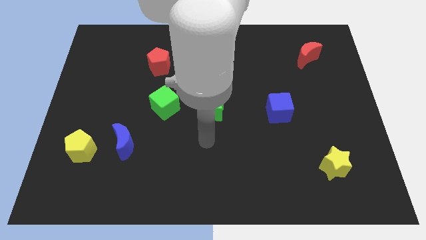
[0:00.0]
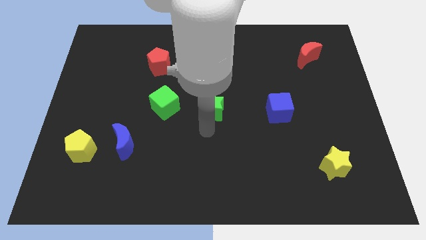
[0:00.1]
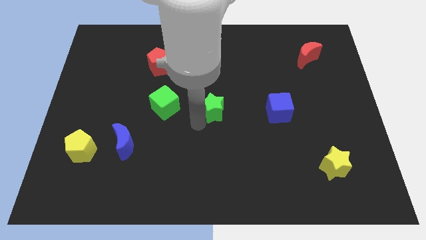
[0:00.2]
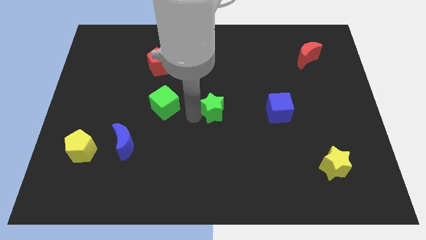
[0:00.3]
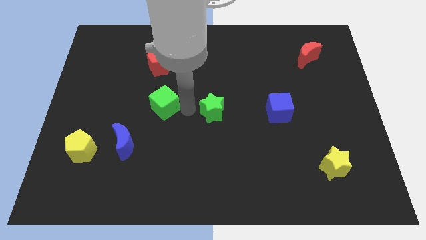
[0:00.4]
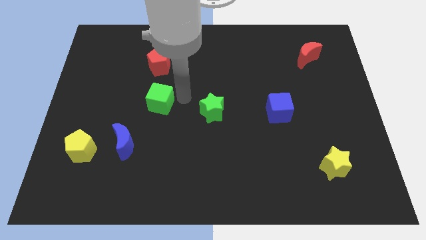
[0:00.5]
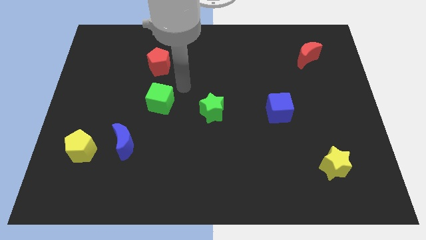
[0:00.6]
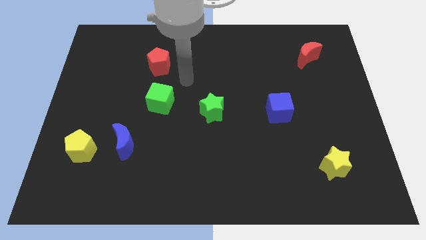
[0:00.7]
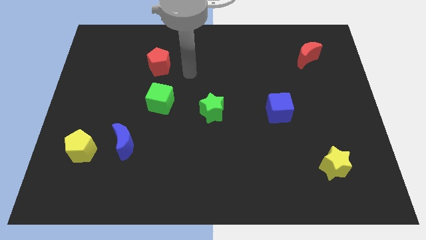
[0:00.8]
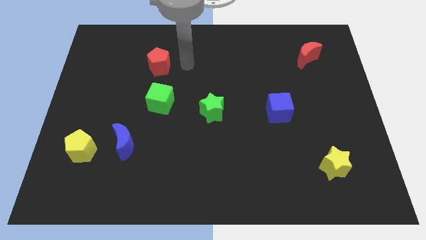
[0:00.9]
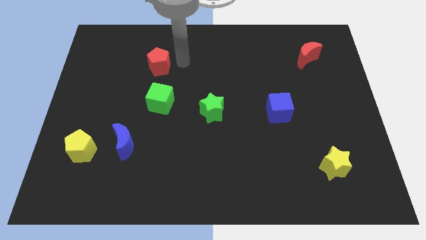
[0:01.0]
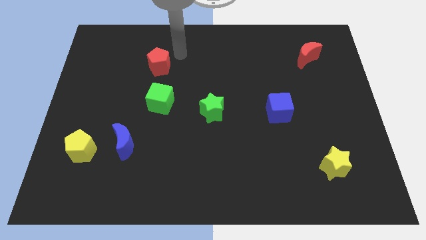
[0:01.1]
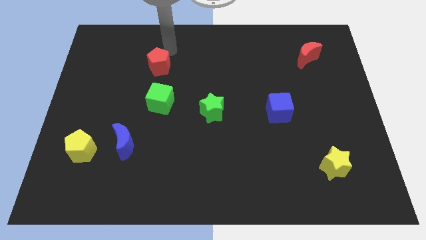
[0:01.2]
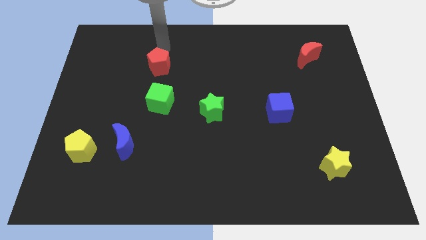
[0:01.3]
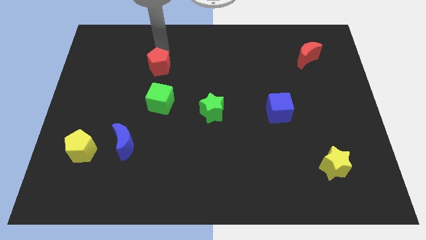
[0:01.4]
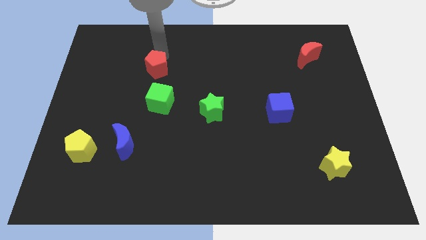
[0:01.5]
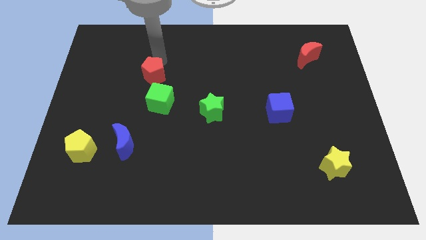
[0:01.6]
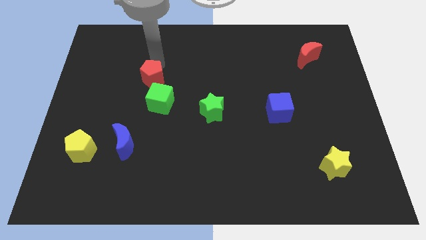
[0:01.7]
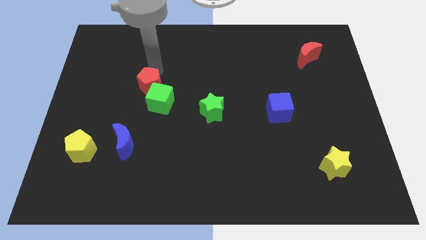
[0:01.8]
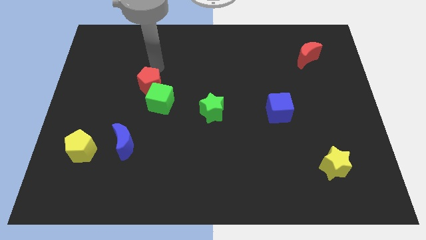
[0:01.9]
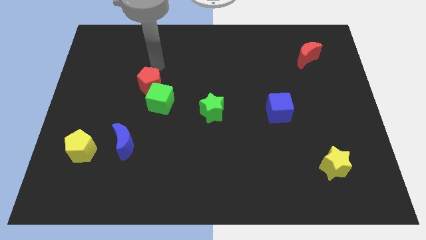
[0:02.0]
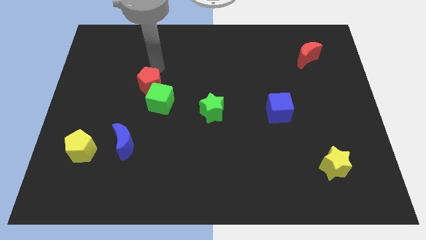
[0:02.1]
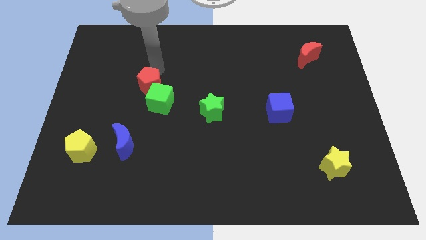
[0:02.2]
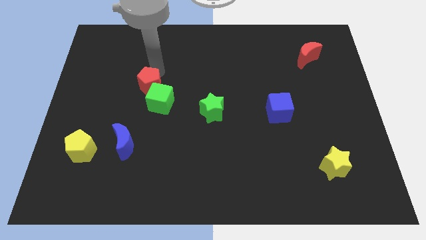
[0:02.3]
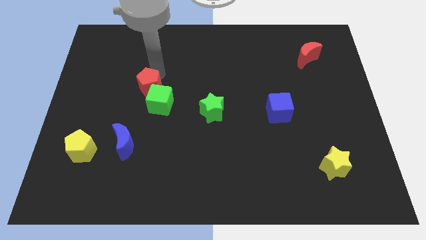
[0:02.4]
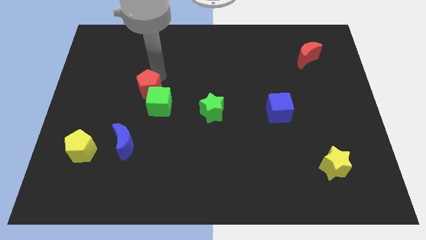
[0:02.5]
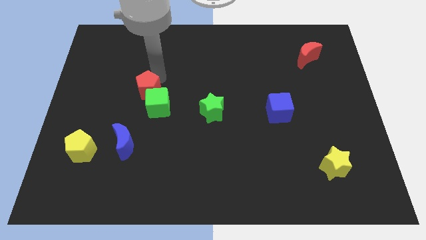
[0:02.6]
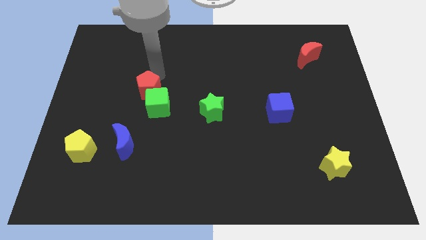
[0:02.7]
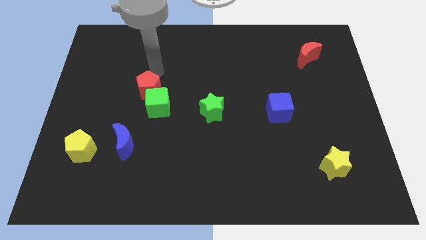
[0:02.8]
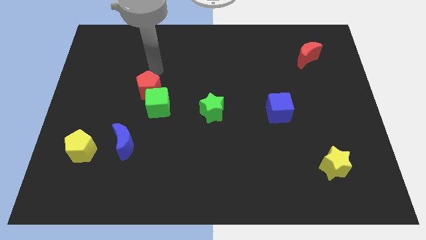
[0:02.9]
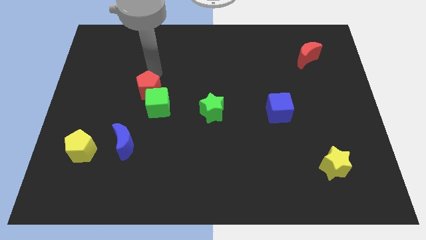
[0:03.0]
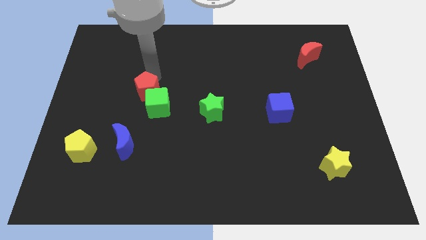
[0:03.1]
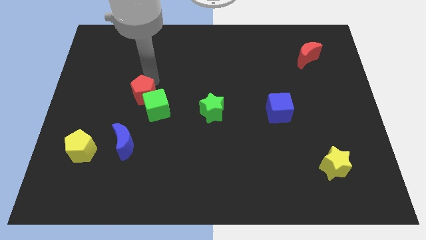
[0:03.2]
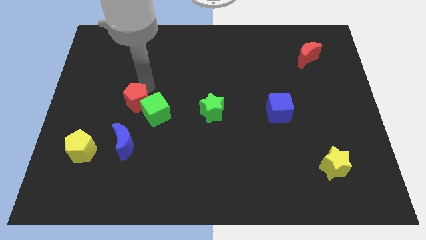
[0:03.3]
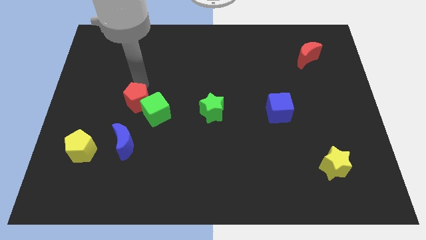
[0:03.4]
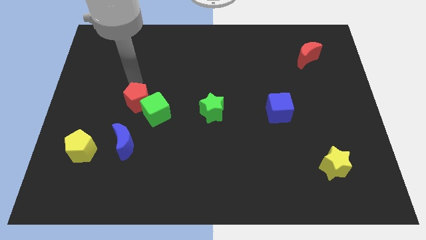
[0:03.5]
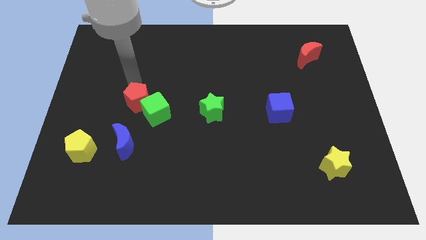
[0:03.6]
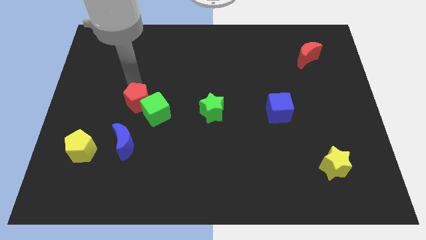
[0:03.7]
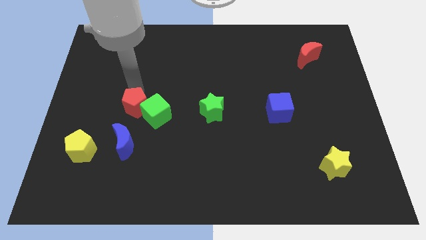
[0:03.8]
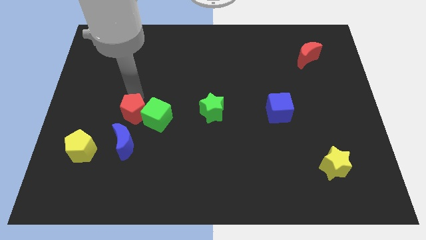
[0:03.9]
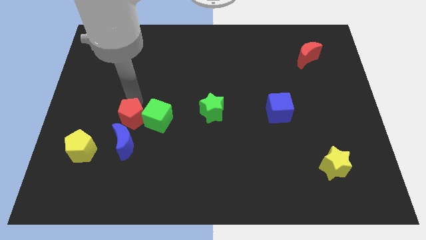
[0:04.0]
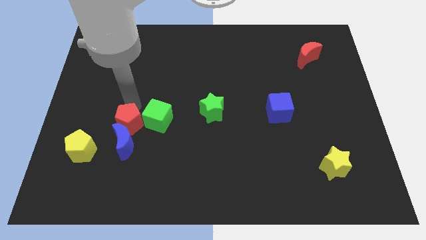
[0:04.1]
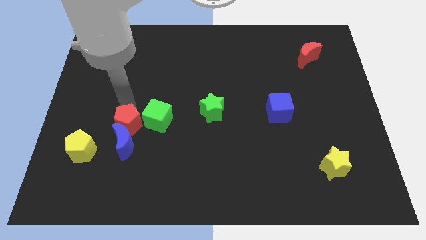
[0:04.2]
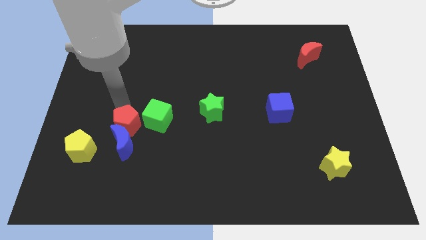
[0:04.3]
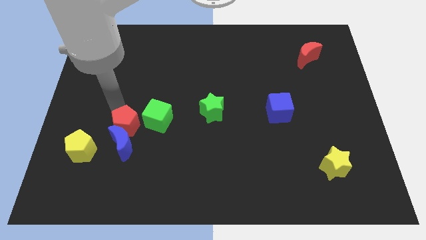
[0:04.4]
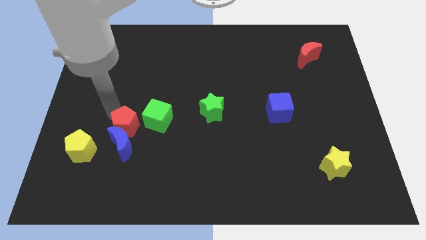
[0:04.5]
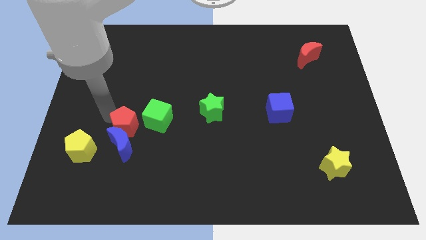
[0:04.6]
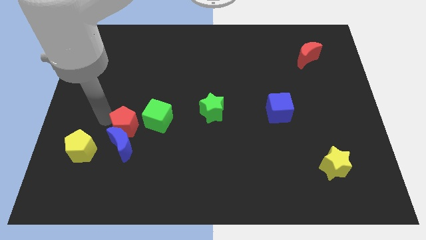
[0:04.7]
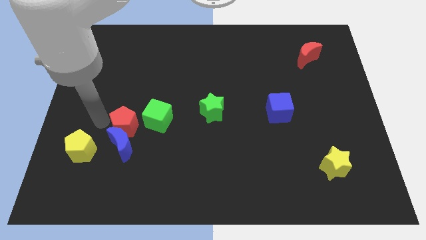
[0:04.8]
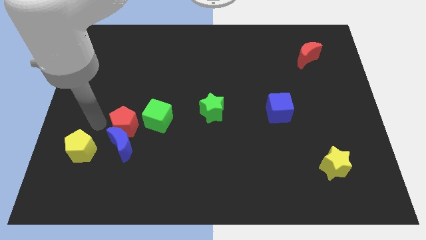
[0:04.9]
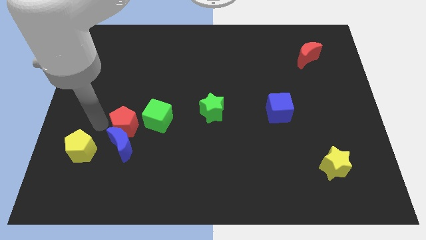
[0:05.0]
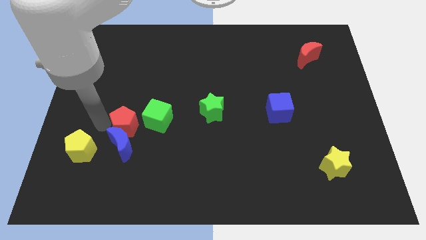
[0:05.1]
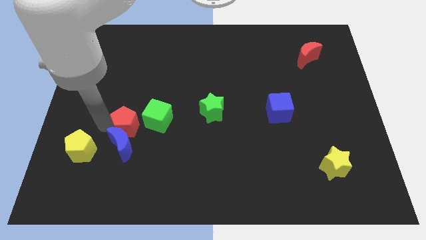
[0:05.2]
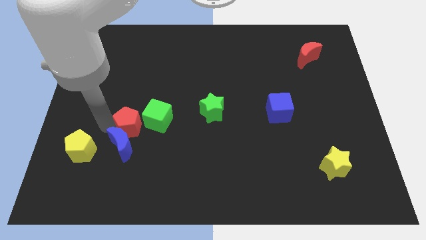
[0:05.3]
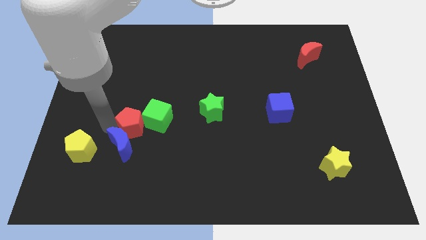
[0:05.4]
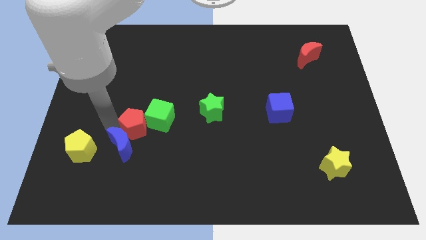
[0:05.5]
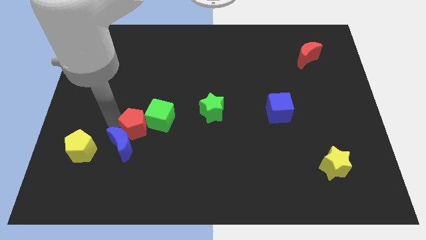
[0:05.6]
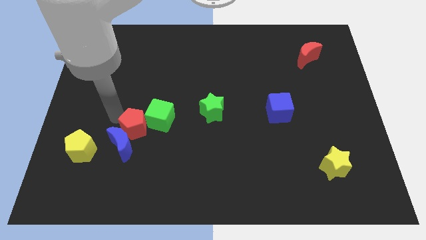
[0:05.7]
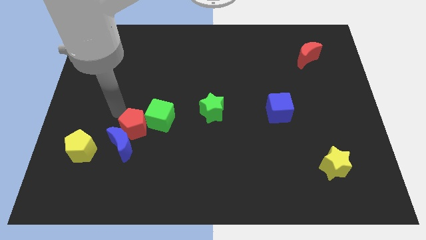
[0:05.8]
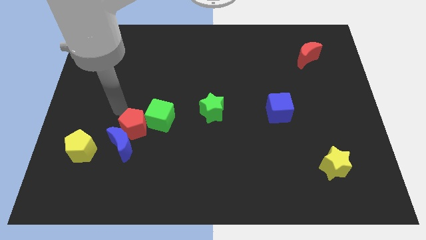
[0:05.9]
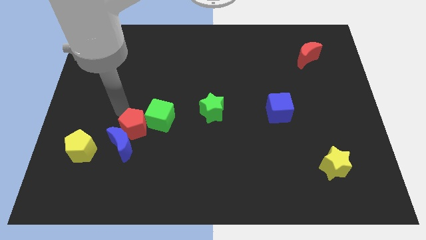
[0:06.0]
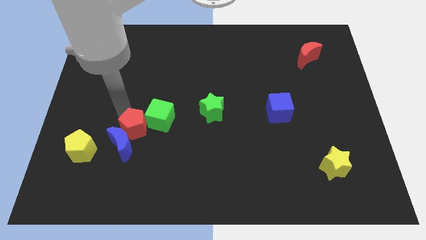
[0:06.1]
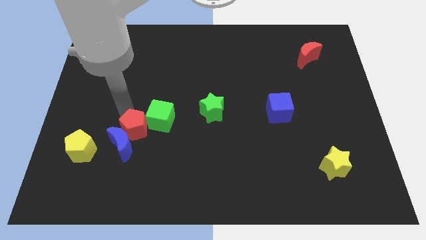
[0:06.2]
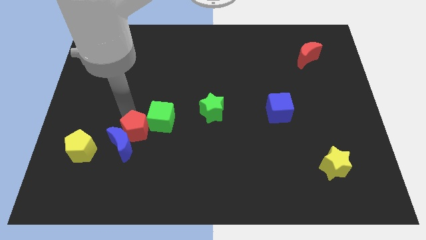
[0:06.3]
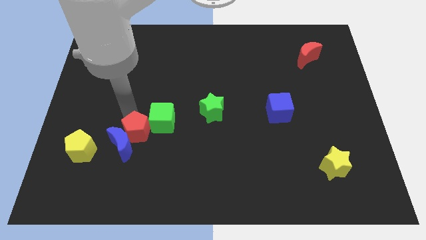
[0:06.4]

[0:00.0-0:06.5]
slide the red pentagon downwards

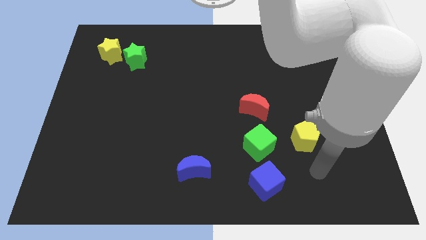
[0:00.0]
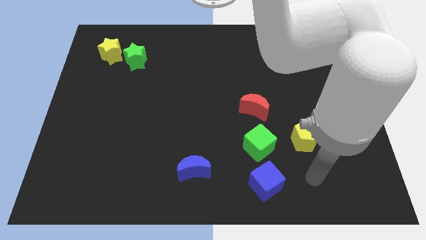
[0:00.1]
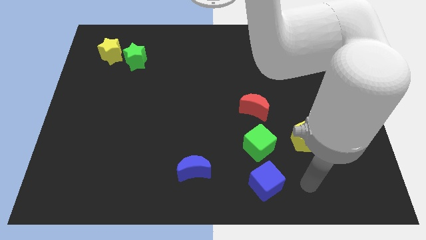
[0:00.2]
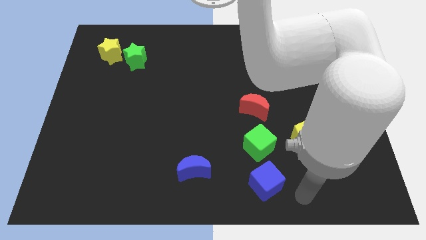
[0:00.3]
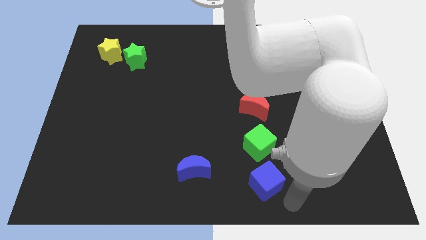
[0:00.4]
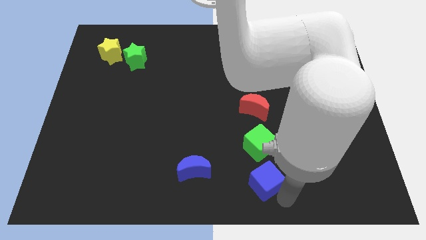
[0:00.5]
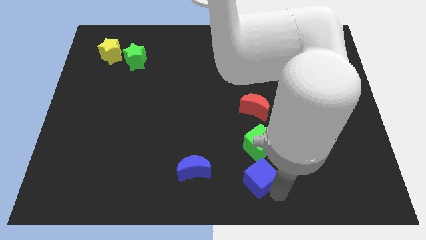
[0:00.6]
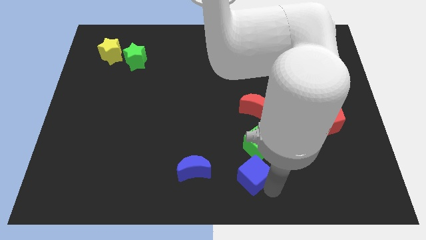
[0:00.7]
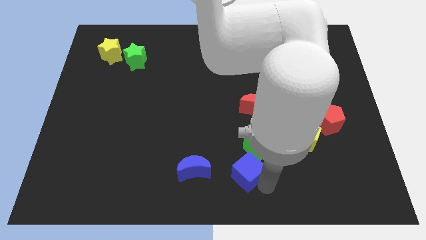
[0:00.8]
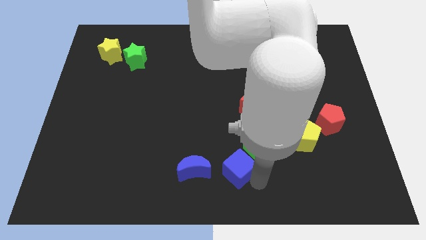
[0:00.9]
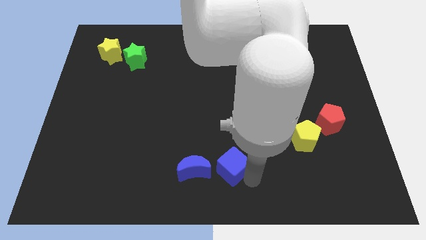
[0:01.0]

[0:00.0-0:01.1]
slightly push the blue cube upwards and left

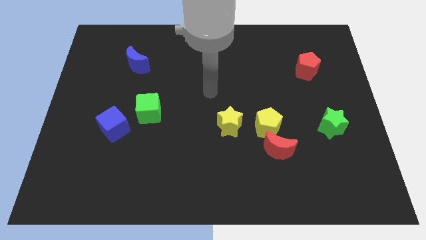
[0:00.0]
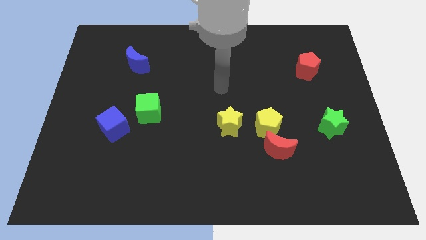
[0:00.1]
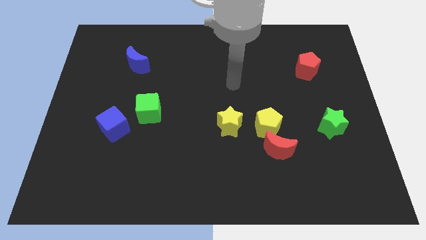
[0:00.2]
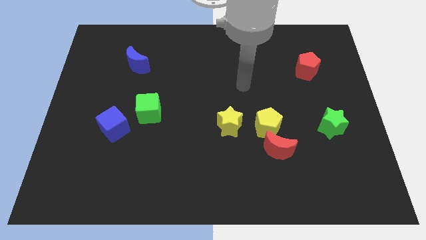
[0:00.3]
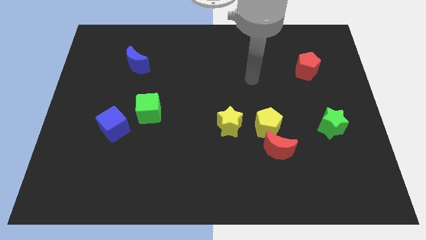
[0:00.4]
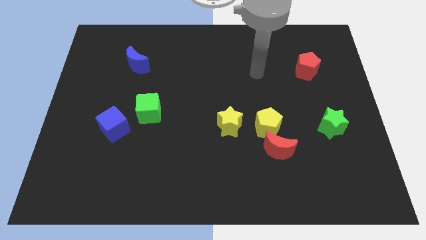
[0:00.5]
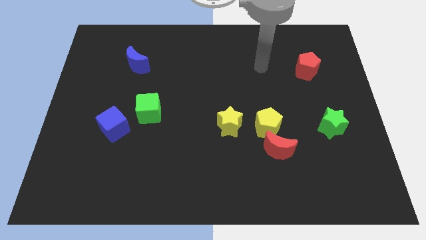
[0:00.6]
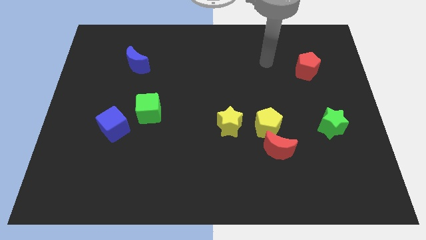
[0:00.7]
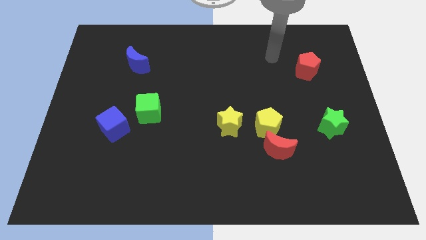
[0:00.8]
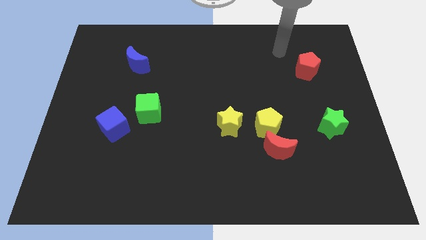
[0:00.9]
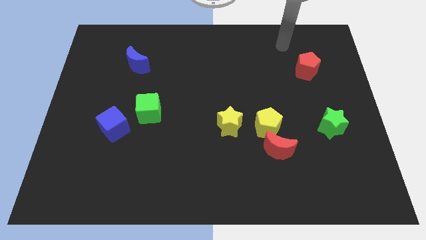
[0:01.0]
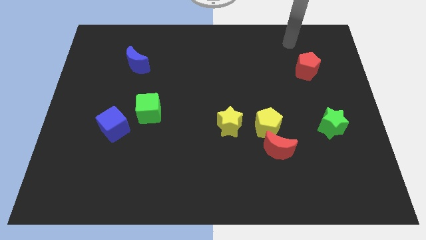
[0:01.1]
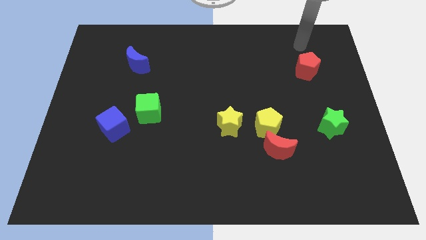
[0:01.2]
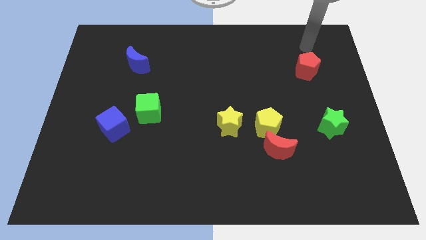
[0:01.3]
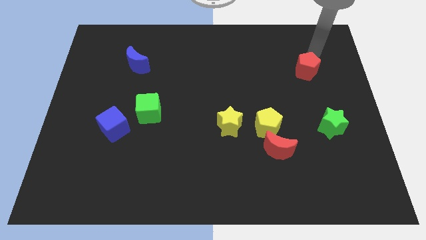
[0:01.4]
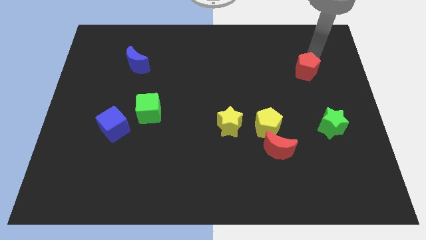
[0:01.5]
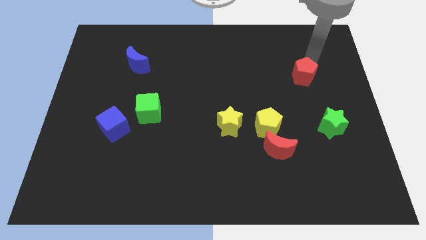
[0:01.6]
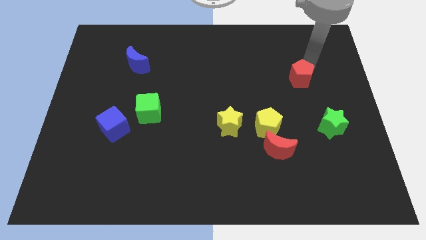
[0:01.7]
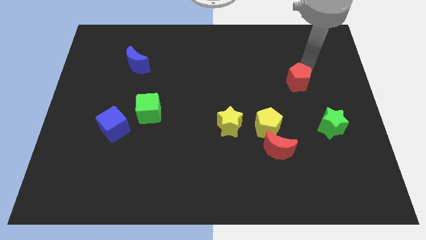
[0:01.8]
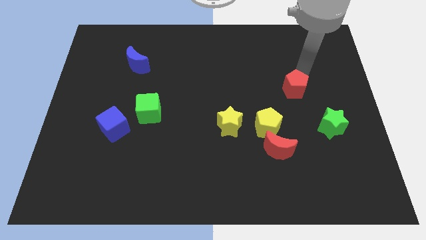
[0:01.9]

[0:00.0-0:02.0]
slightly move the red pentagon downwards and to the left
